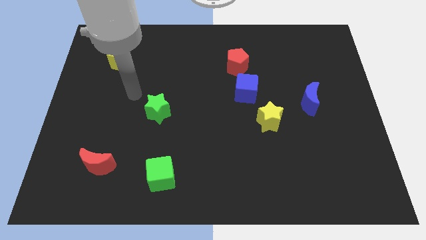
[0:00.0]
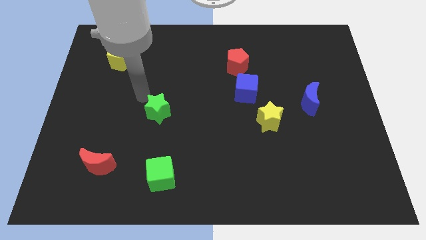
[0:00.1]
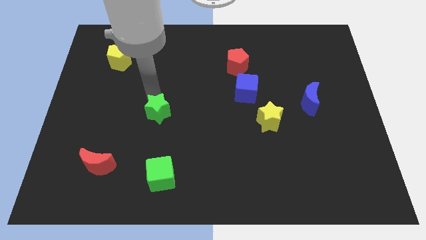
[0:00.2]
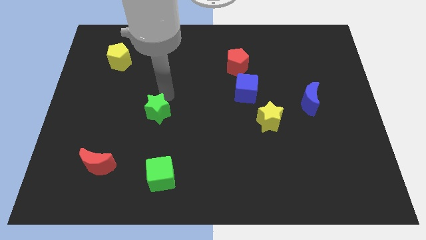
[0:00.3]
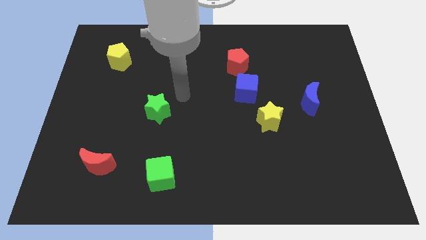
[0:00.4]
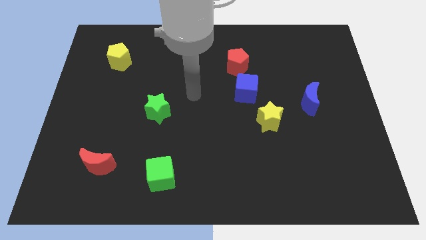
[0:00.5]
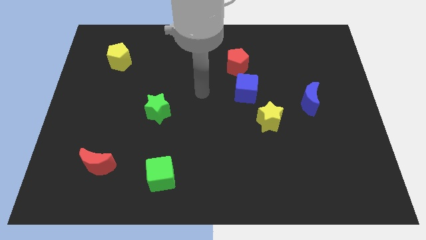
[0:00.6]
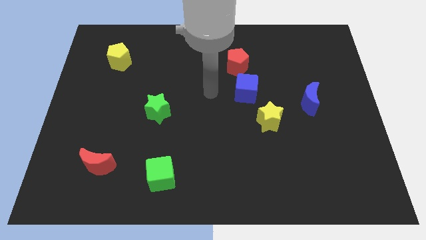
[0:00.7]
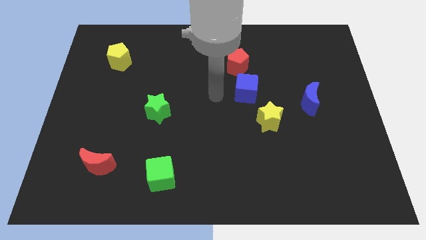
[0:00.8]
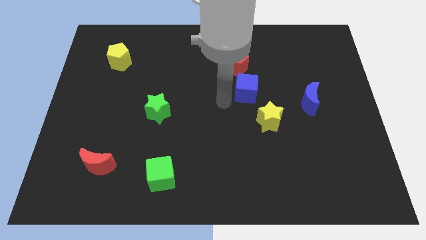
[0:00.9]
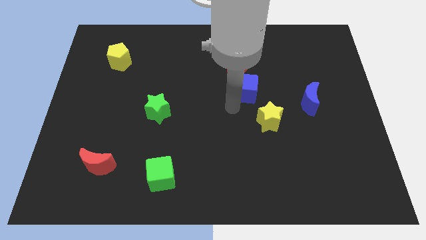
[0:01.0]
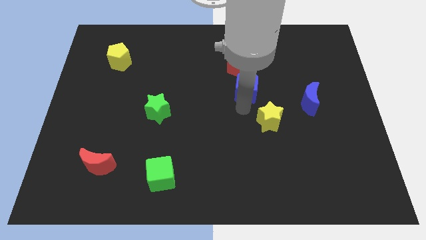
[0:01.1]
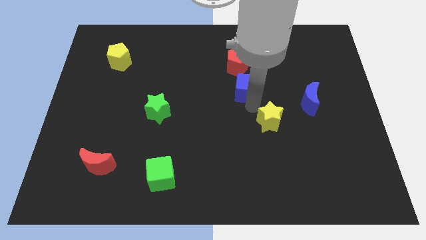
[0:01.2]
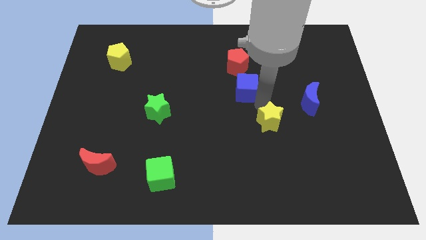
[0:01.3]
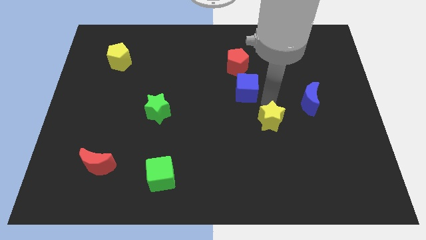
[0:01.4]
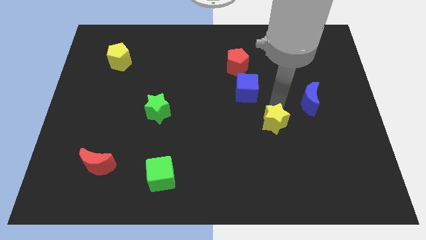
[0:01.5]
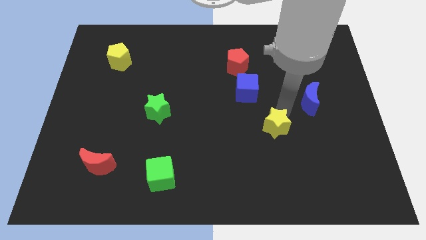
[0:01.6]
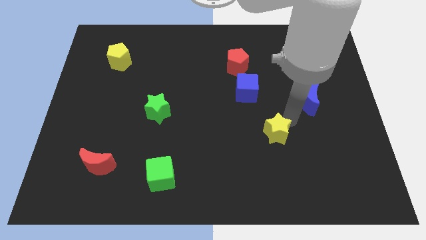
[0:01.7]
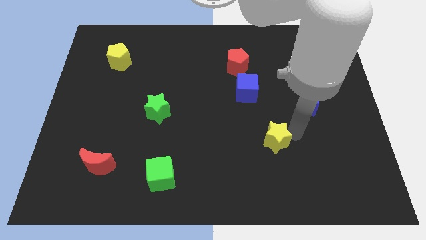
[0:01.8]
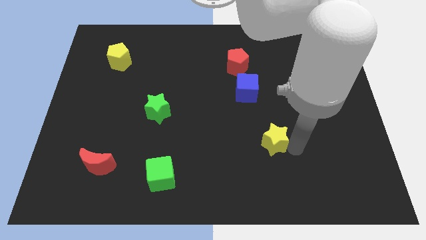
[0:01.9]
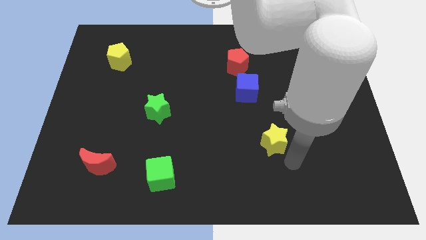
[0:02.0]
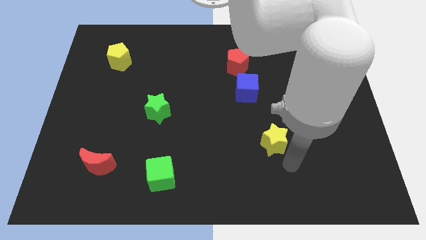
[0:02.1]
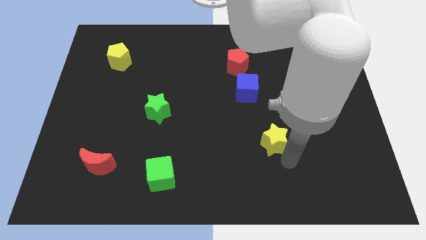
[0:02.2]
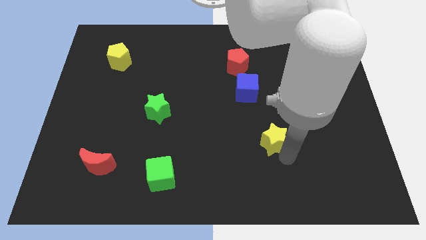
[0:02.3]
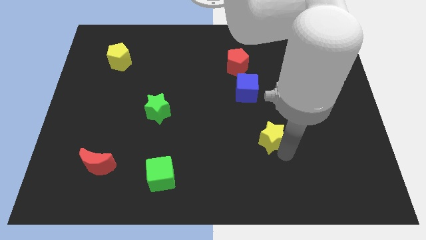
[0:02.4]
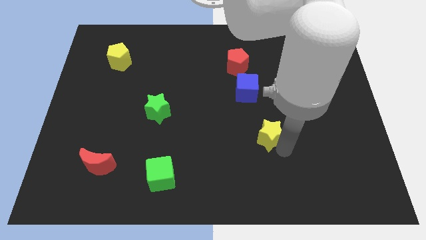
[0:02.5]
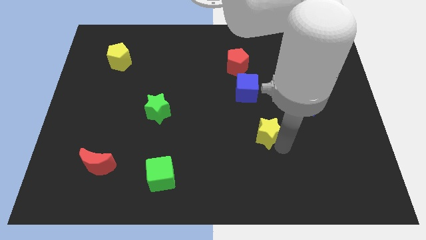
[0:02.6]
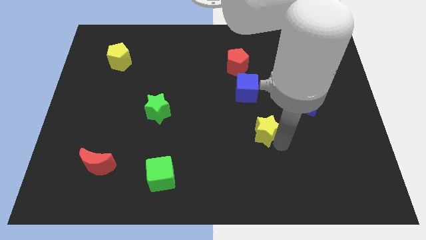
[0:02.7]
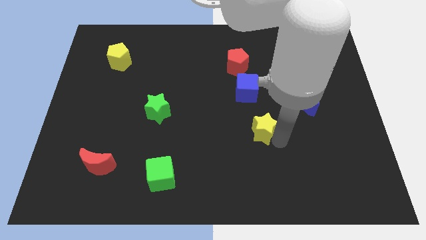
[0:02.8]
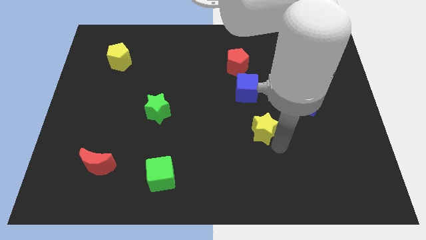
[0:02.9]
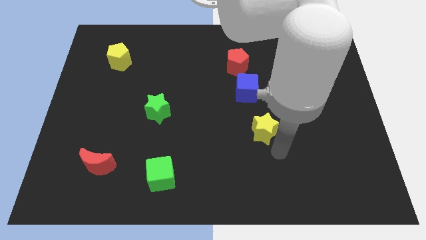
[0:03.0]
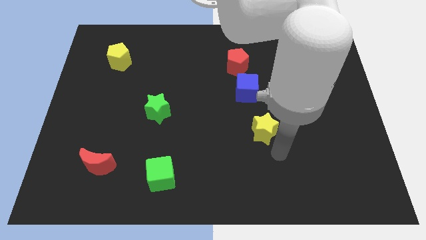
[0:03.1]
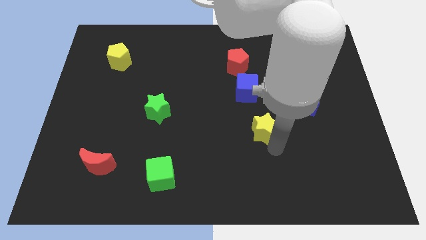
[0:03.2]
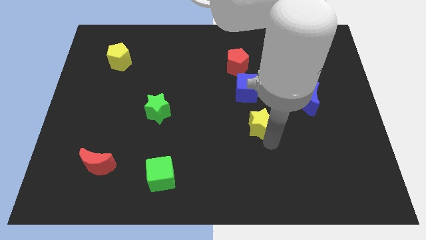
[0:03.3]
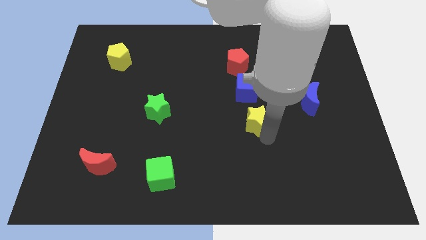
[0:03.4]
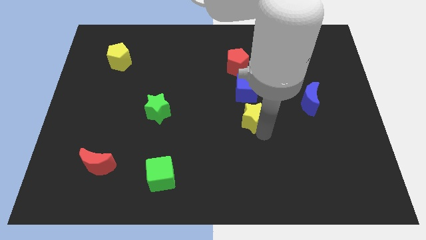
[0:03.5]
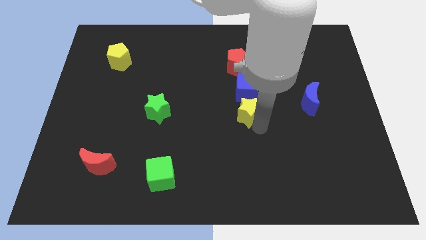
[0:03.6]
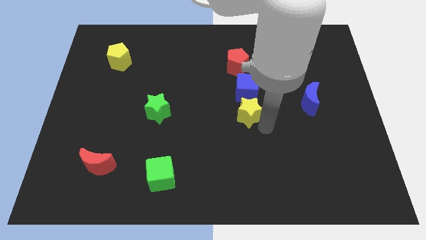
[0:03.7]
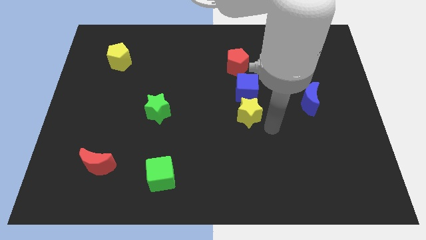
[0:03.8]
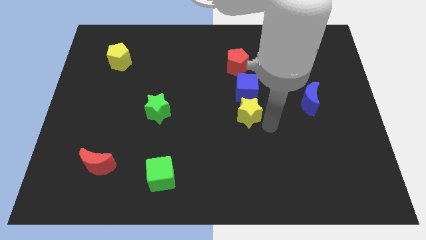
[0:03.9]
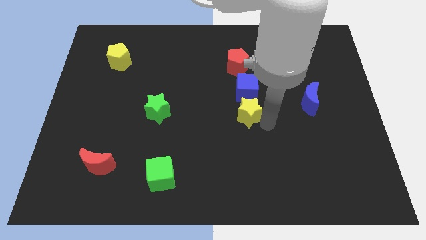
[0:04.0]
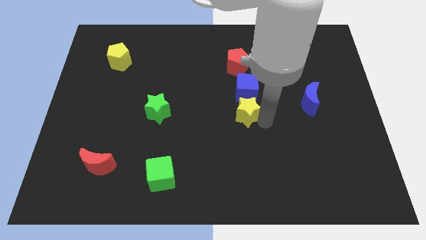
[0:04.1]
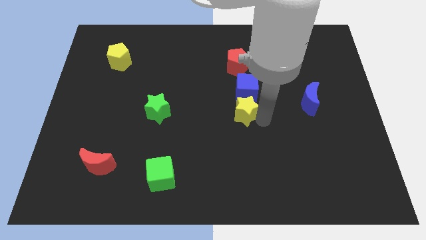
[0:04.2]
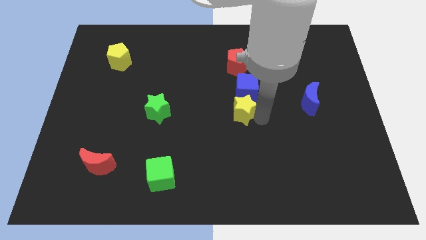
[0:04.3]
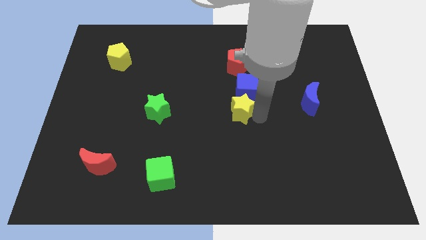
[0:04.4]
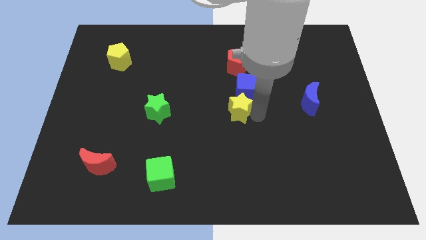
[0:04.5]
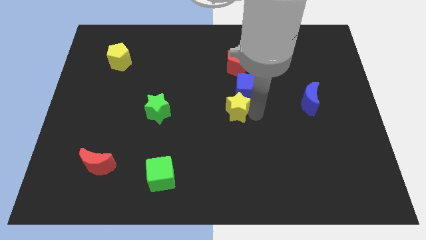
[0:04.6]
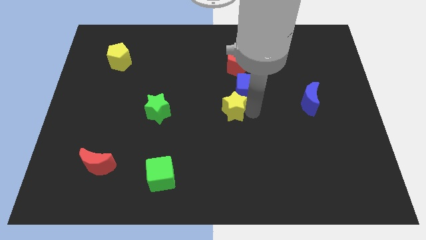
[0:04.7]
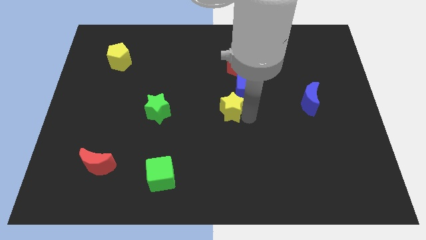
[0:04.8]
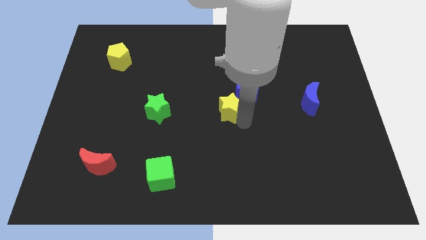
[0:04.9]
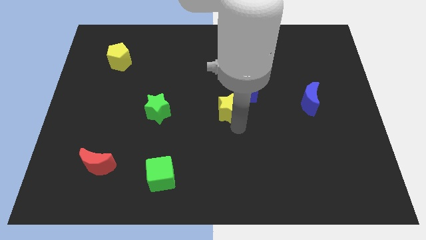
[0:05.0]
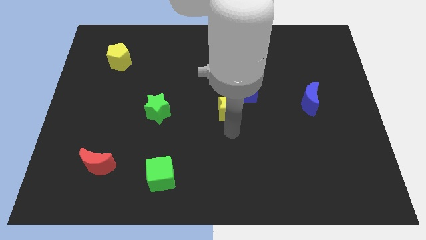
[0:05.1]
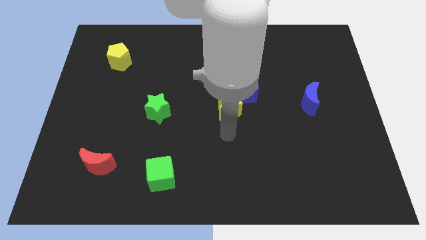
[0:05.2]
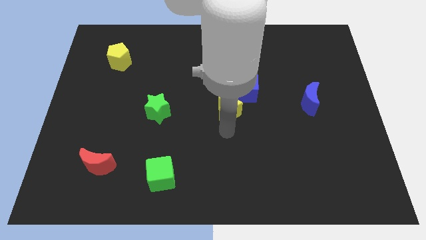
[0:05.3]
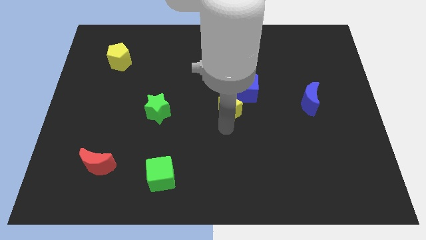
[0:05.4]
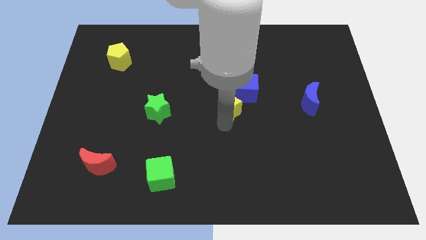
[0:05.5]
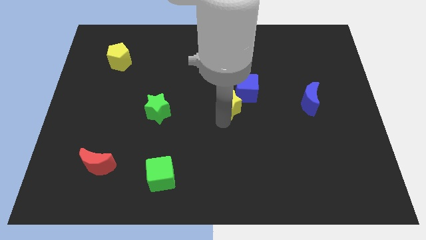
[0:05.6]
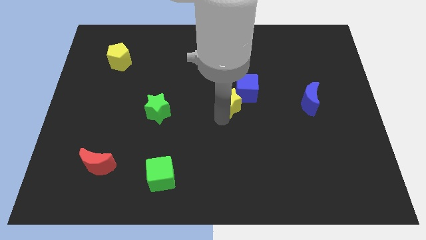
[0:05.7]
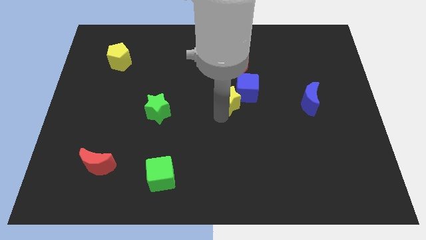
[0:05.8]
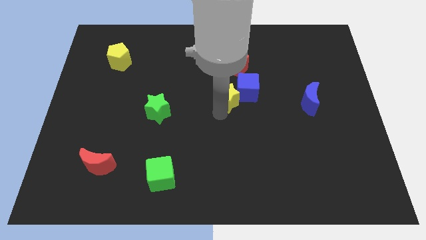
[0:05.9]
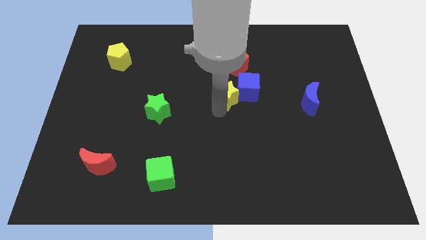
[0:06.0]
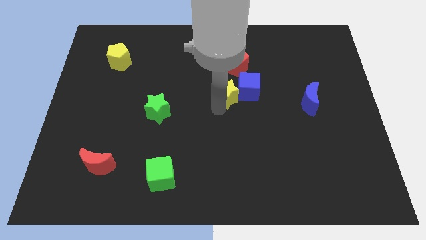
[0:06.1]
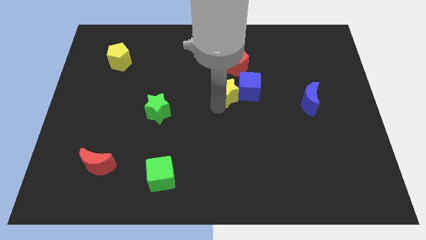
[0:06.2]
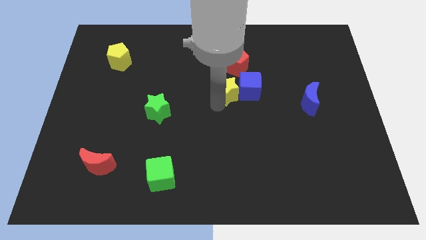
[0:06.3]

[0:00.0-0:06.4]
slide the yellow star to the top left side of the blue cube

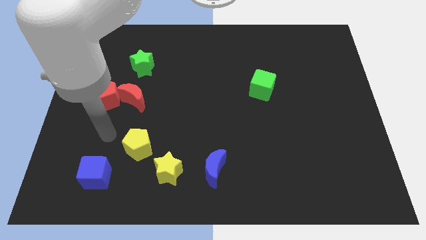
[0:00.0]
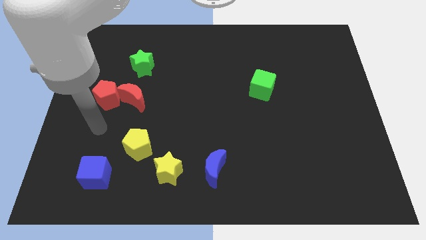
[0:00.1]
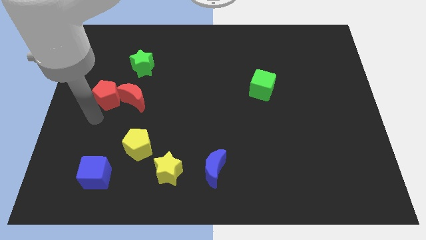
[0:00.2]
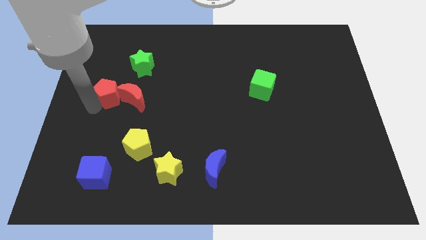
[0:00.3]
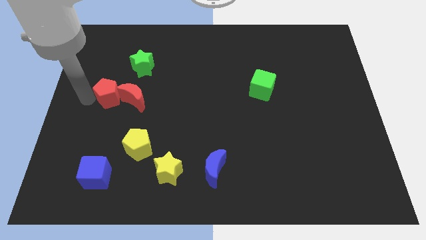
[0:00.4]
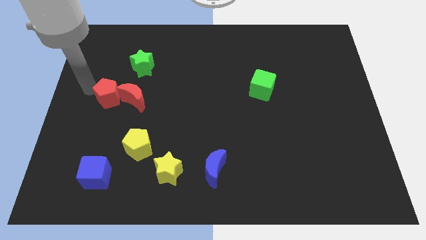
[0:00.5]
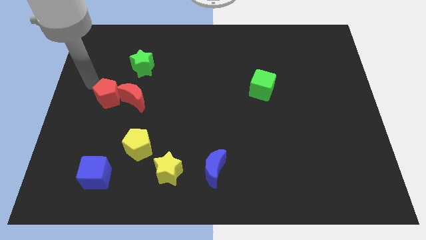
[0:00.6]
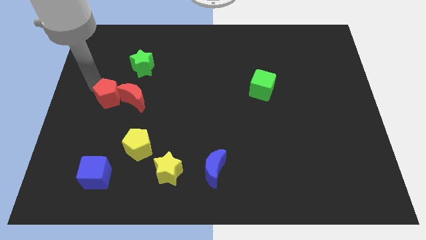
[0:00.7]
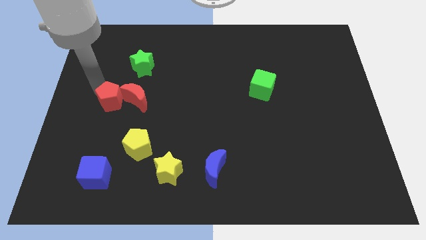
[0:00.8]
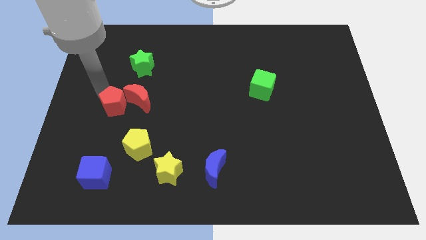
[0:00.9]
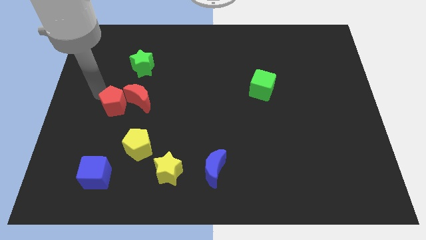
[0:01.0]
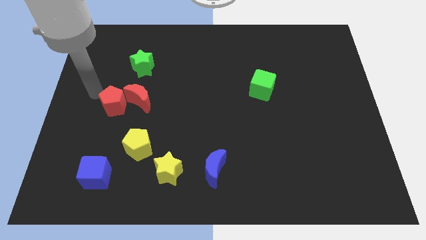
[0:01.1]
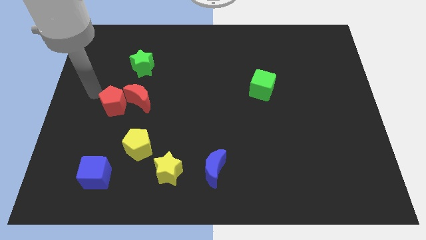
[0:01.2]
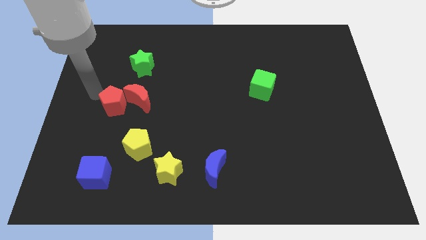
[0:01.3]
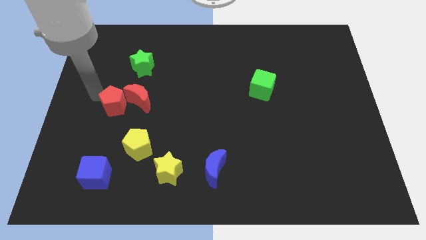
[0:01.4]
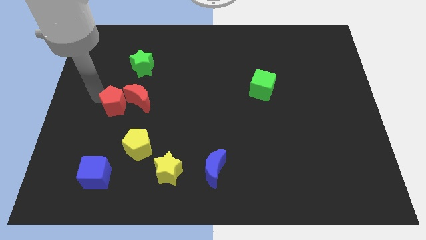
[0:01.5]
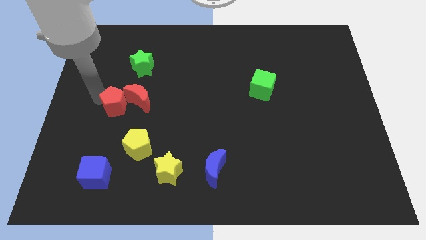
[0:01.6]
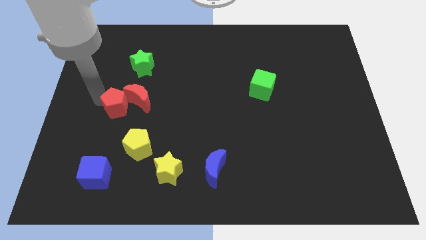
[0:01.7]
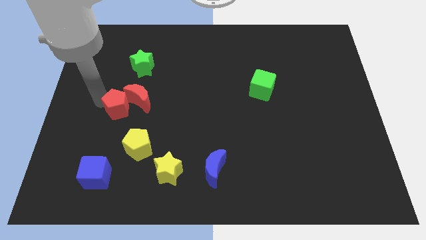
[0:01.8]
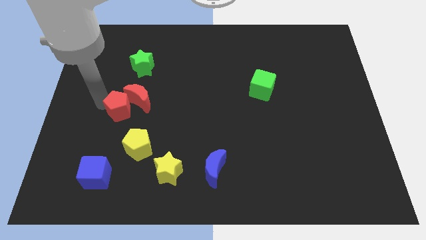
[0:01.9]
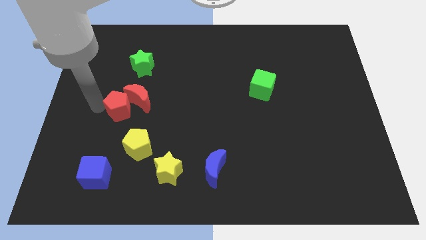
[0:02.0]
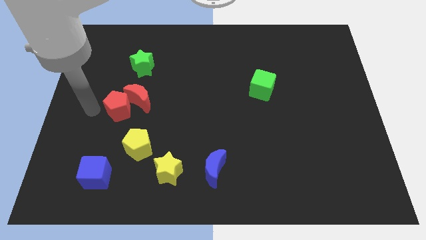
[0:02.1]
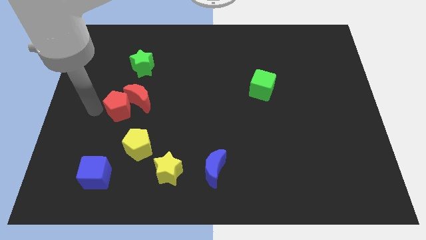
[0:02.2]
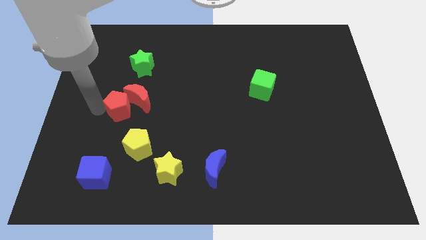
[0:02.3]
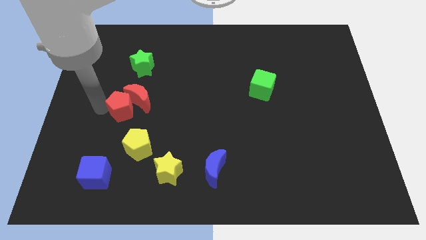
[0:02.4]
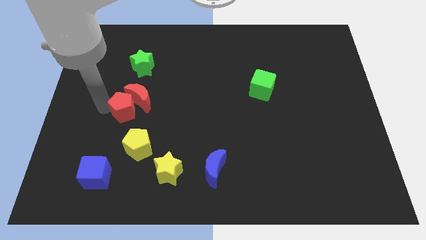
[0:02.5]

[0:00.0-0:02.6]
put the red pentagon to the top side of the yellow pentagon
